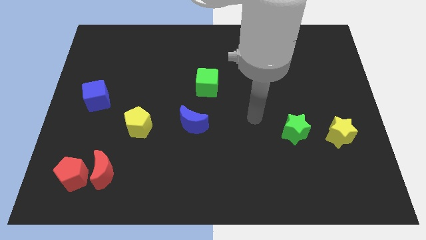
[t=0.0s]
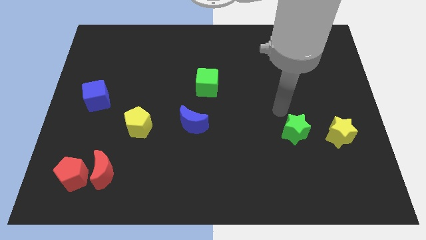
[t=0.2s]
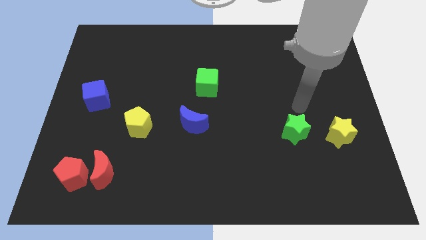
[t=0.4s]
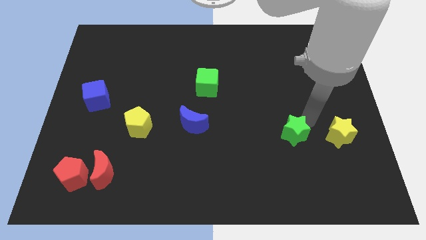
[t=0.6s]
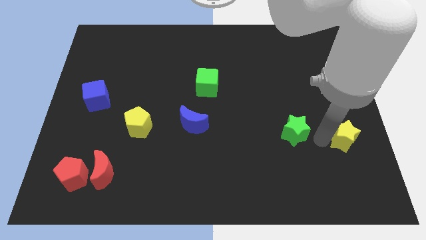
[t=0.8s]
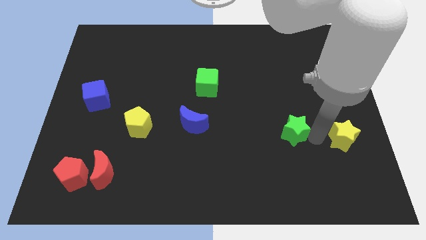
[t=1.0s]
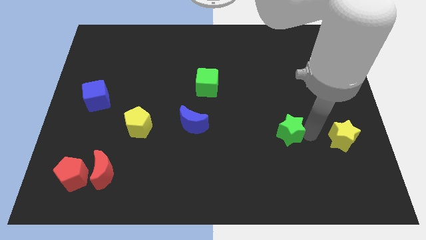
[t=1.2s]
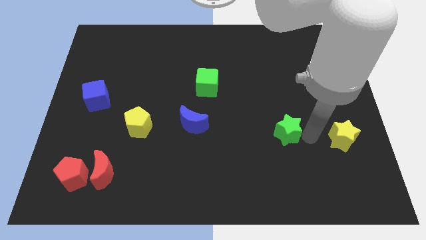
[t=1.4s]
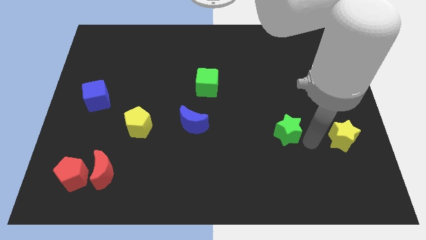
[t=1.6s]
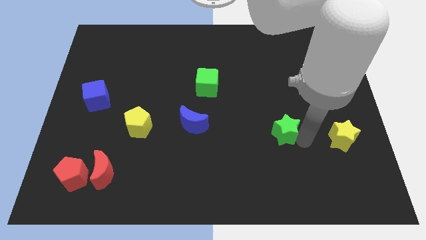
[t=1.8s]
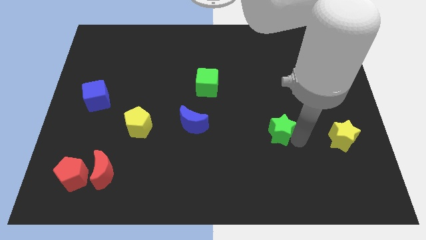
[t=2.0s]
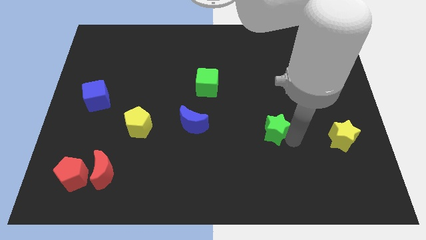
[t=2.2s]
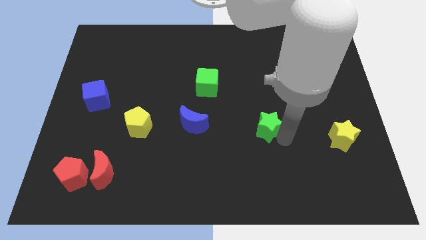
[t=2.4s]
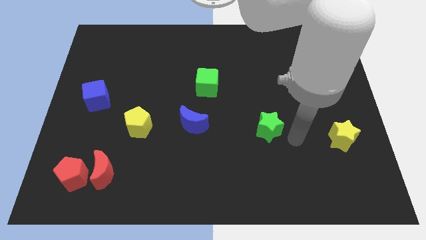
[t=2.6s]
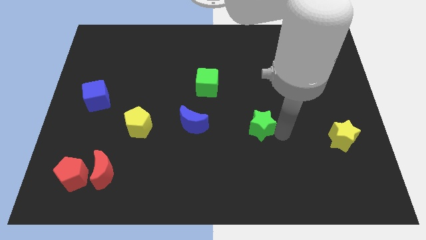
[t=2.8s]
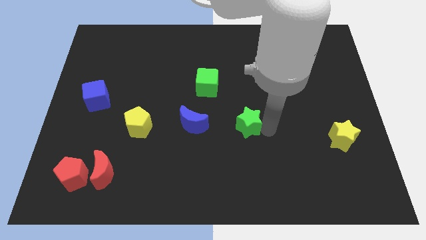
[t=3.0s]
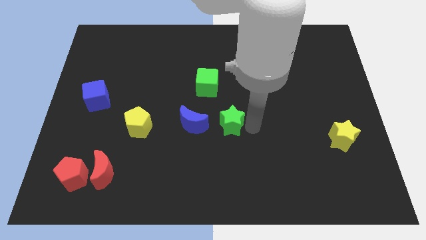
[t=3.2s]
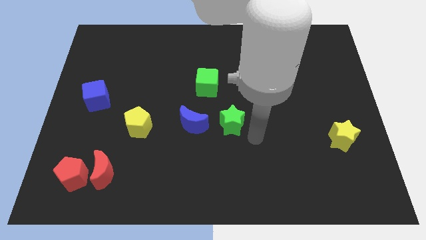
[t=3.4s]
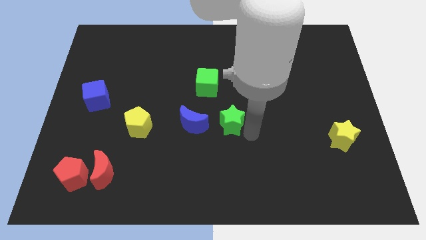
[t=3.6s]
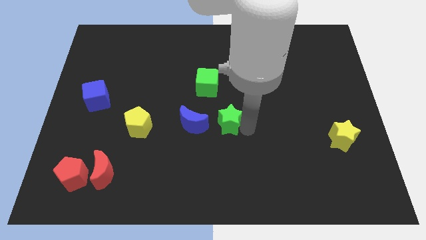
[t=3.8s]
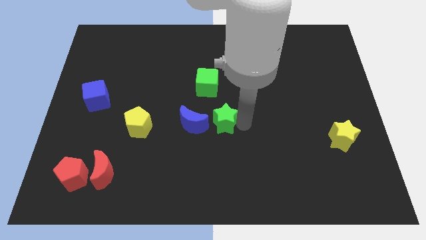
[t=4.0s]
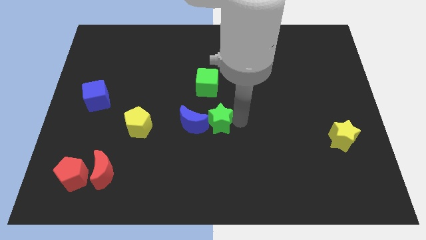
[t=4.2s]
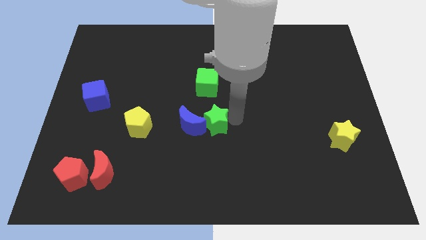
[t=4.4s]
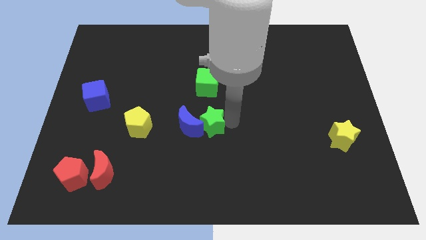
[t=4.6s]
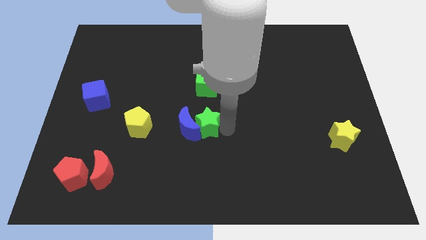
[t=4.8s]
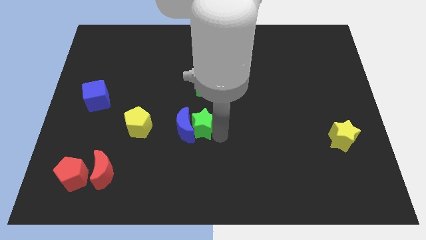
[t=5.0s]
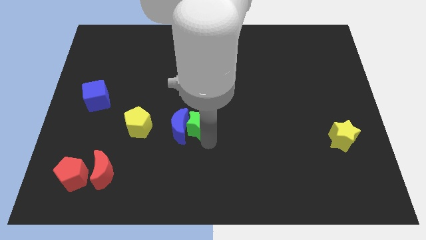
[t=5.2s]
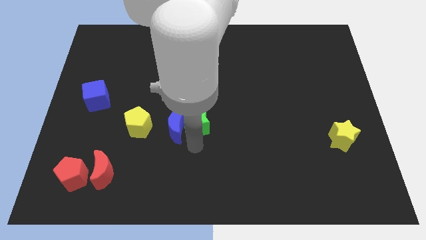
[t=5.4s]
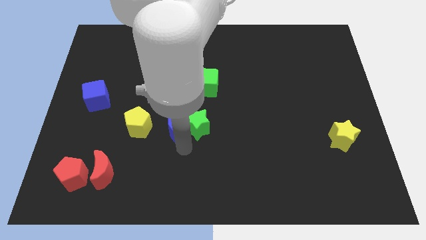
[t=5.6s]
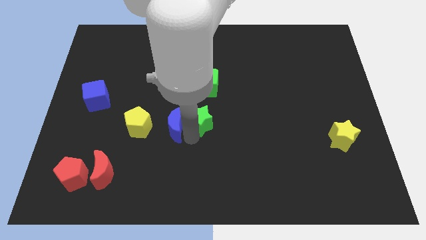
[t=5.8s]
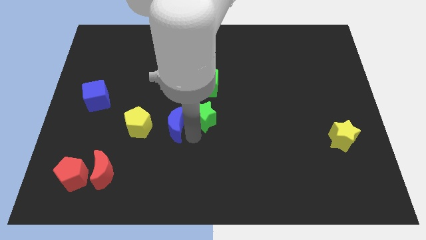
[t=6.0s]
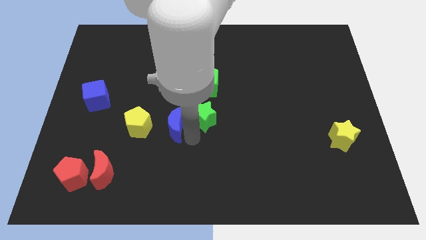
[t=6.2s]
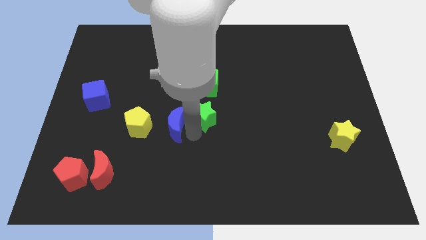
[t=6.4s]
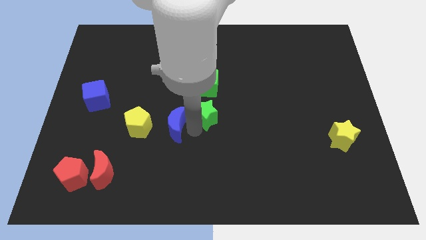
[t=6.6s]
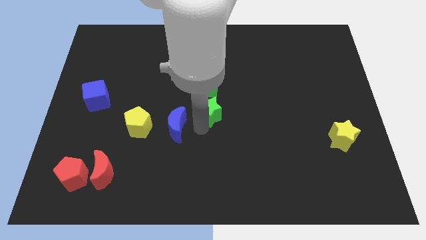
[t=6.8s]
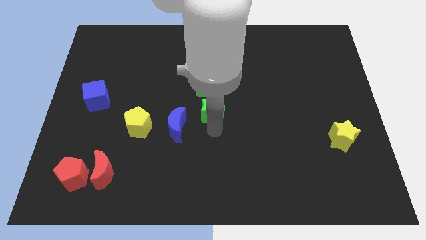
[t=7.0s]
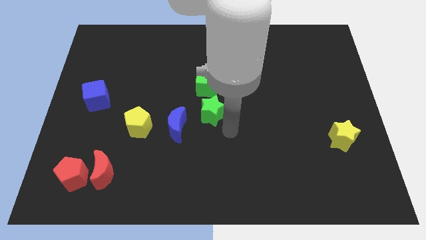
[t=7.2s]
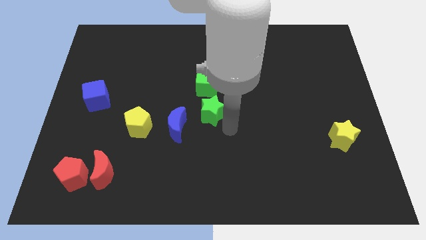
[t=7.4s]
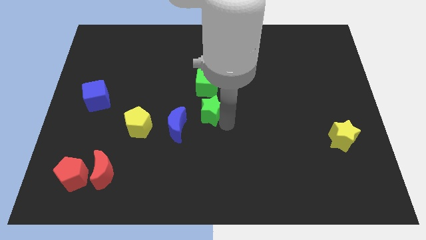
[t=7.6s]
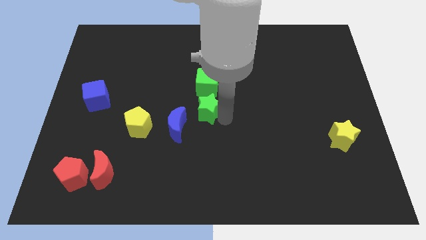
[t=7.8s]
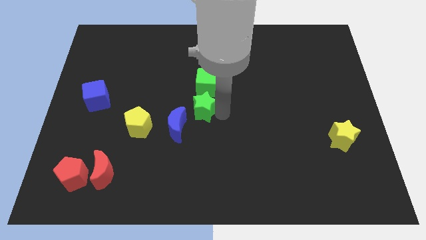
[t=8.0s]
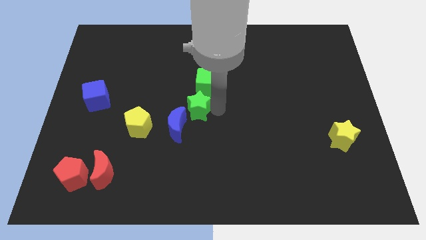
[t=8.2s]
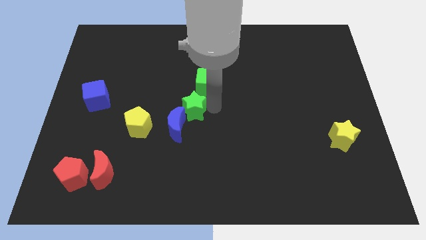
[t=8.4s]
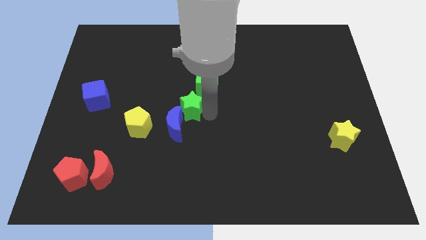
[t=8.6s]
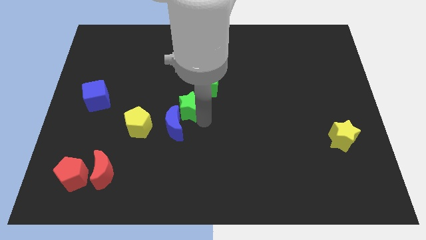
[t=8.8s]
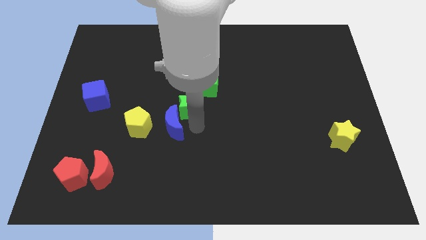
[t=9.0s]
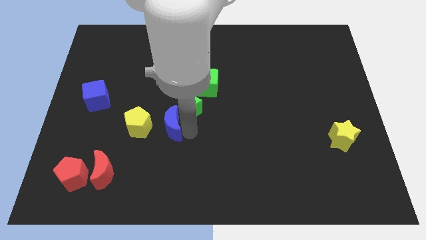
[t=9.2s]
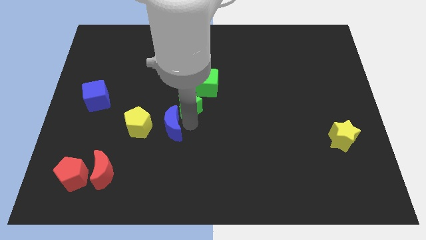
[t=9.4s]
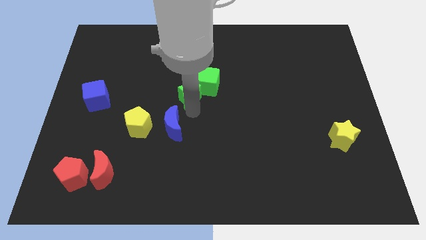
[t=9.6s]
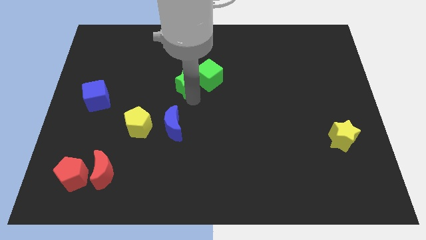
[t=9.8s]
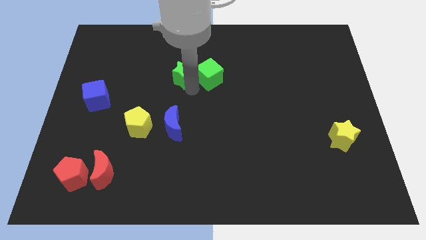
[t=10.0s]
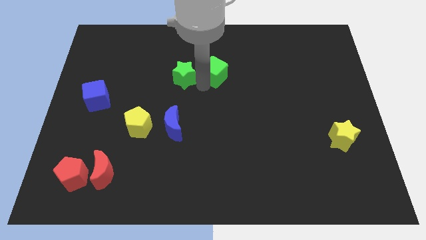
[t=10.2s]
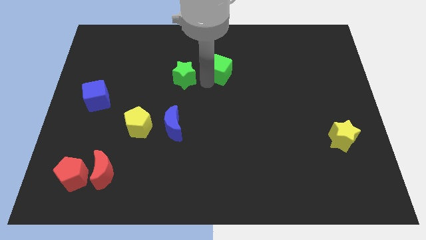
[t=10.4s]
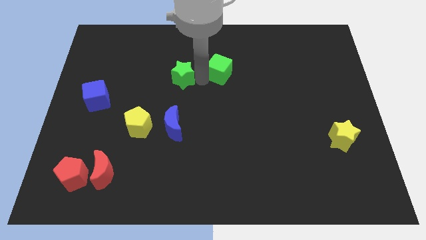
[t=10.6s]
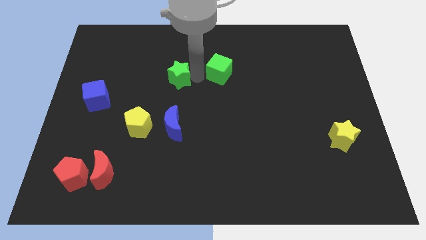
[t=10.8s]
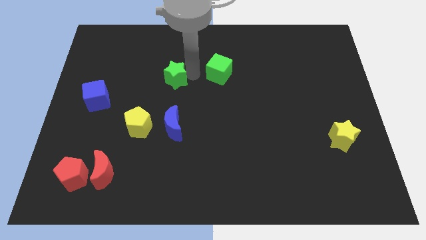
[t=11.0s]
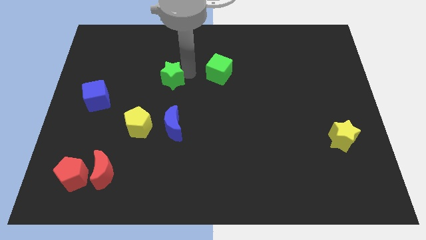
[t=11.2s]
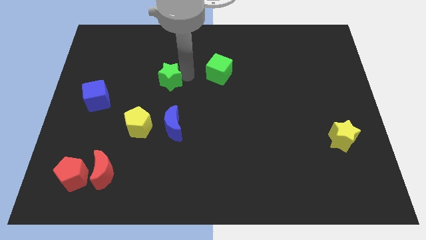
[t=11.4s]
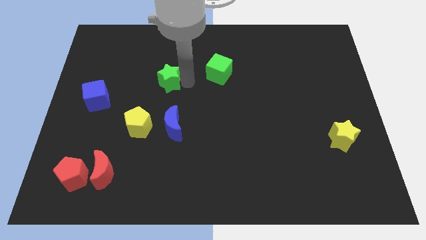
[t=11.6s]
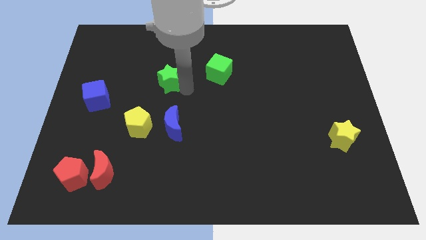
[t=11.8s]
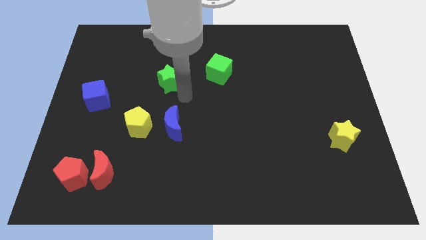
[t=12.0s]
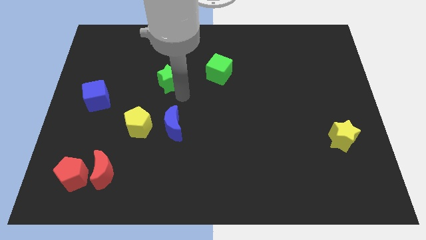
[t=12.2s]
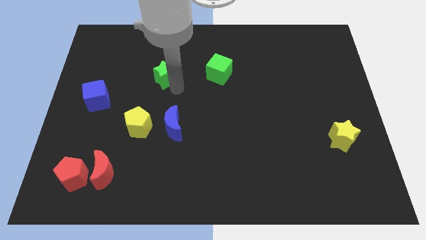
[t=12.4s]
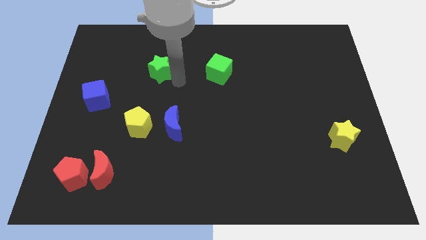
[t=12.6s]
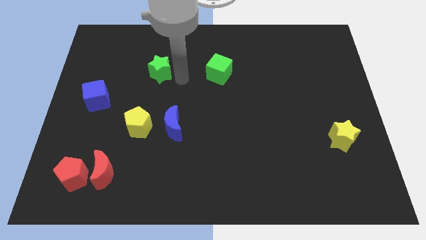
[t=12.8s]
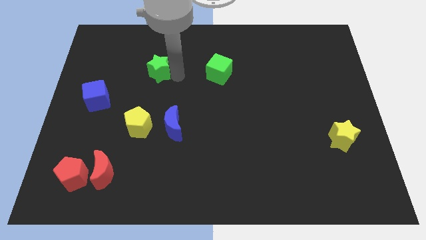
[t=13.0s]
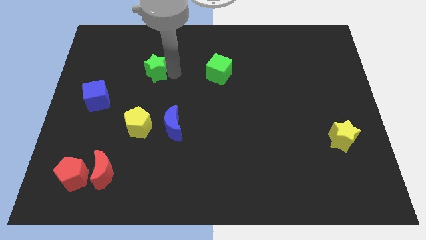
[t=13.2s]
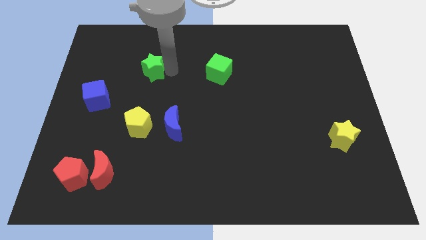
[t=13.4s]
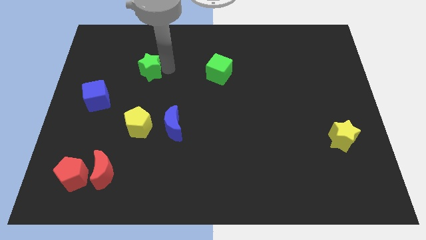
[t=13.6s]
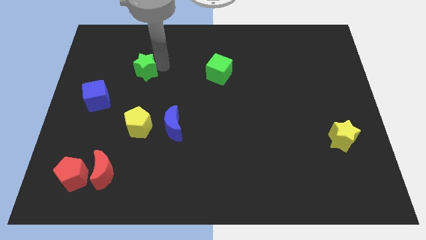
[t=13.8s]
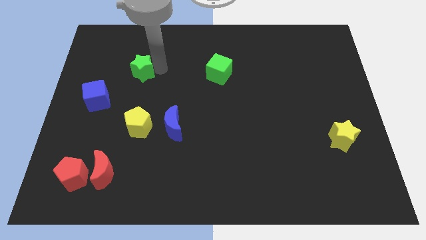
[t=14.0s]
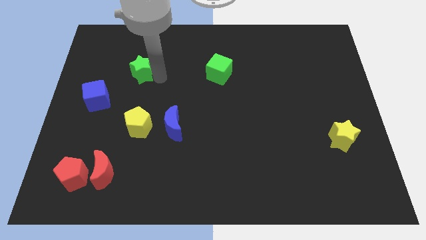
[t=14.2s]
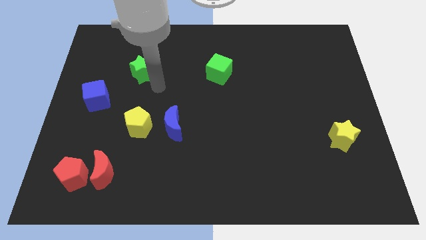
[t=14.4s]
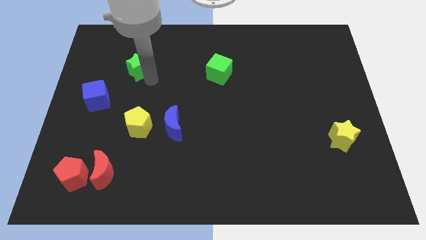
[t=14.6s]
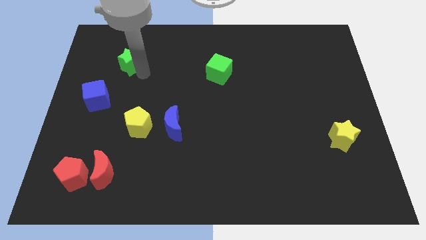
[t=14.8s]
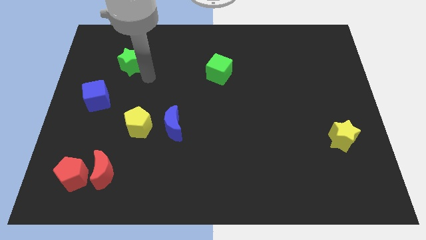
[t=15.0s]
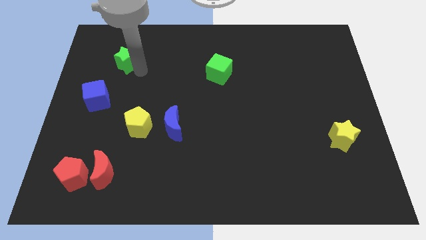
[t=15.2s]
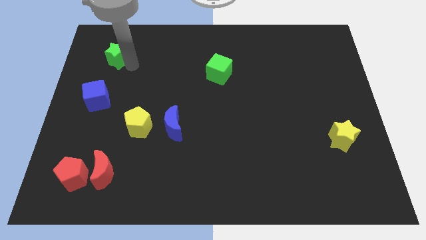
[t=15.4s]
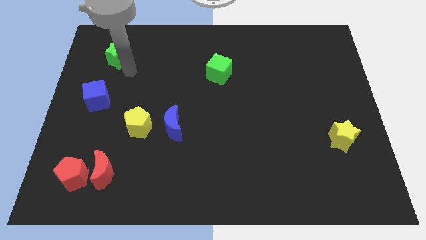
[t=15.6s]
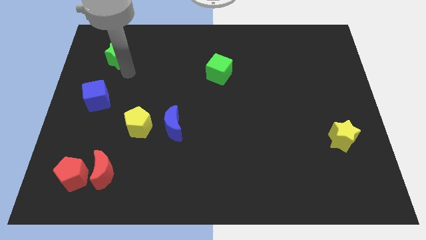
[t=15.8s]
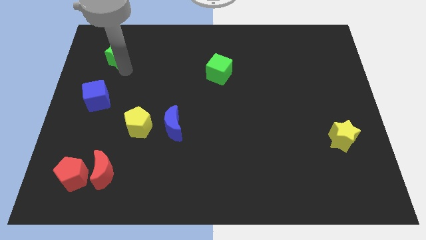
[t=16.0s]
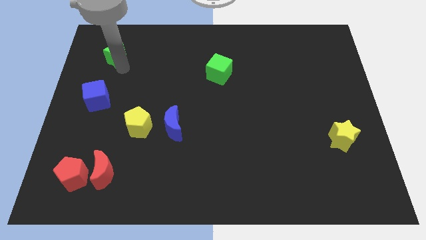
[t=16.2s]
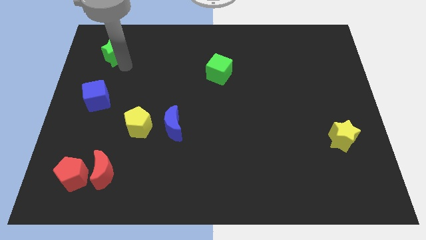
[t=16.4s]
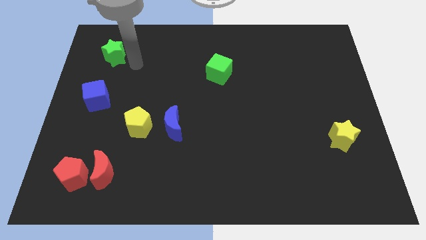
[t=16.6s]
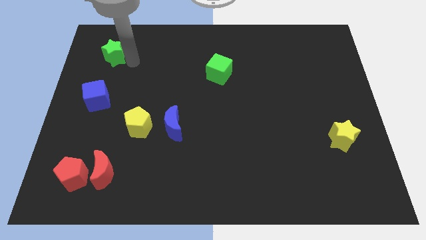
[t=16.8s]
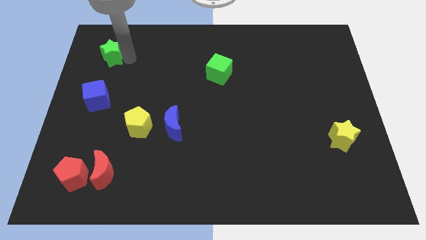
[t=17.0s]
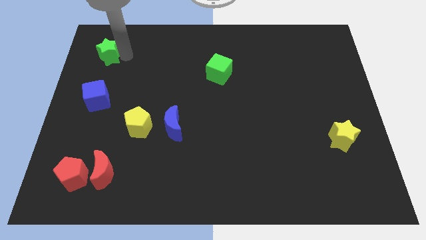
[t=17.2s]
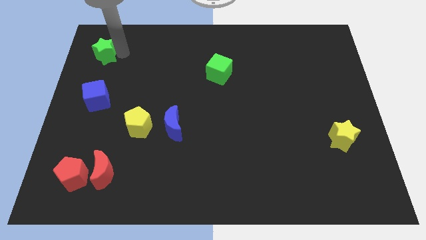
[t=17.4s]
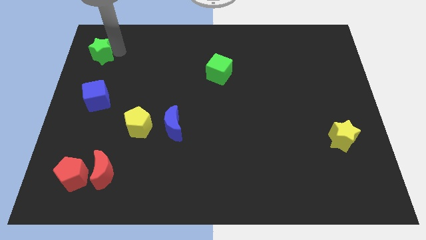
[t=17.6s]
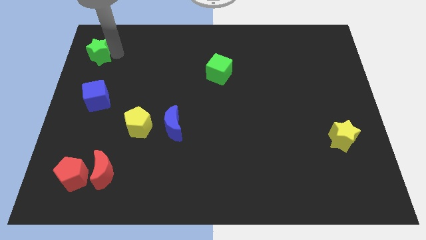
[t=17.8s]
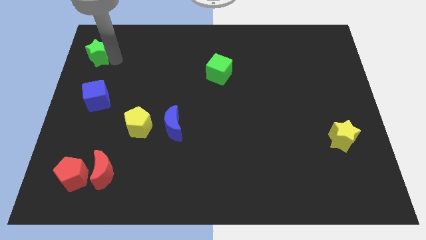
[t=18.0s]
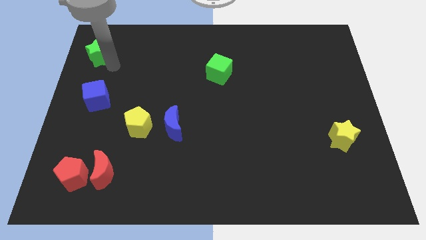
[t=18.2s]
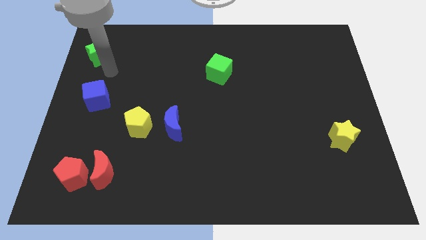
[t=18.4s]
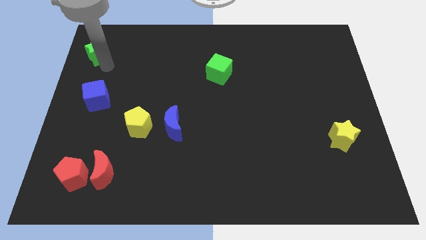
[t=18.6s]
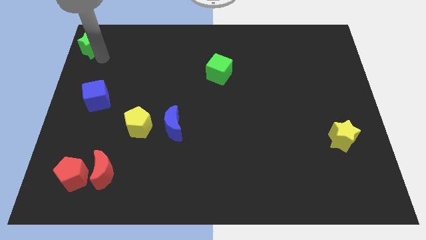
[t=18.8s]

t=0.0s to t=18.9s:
put the green star to the top left of the board
